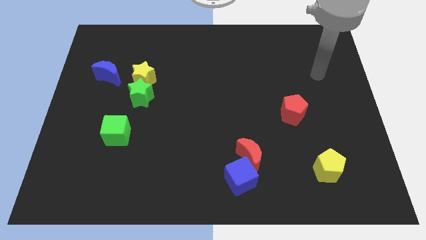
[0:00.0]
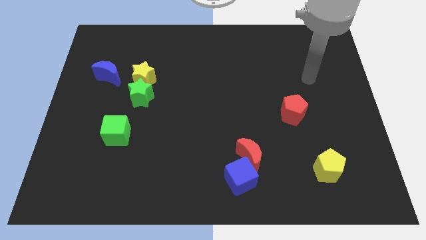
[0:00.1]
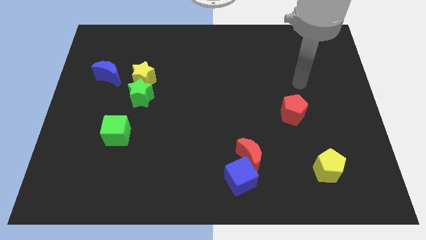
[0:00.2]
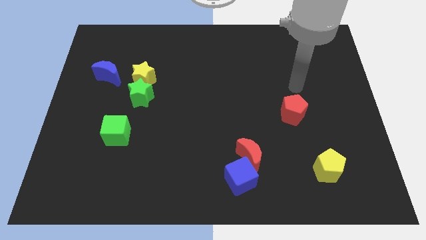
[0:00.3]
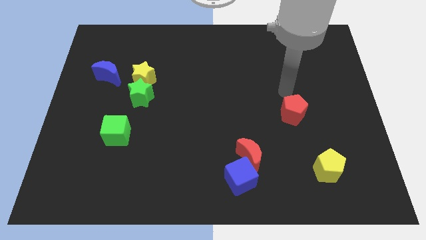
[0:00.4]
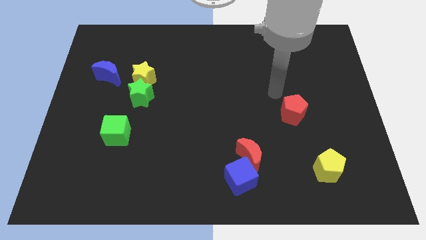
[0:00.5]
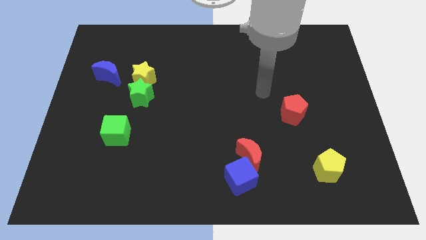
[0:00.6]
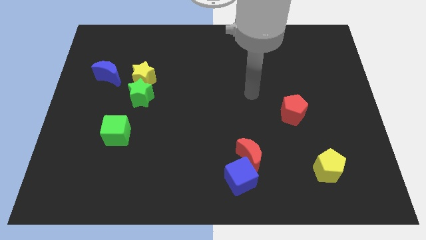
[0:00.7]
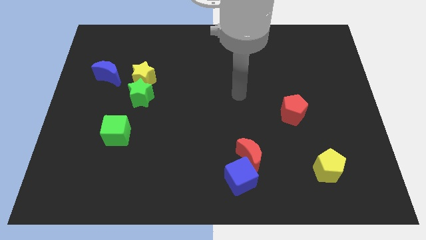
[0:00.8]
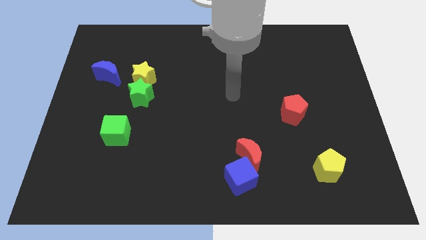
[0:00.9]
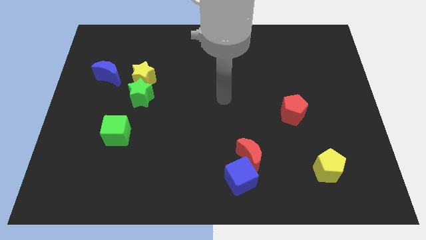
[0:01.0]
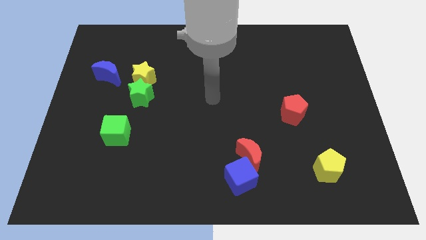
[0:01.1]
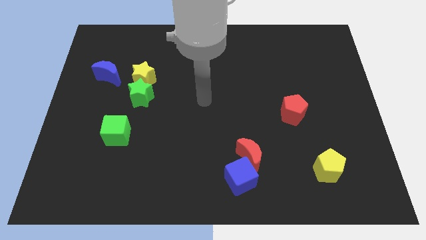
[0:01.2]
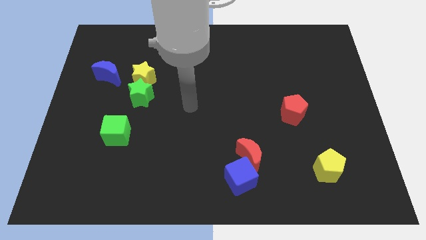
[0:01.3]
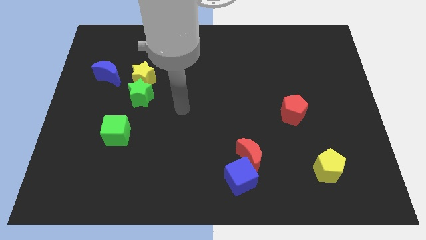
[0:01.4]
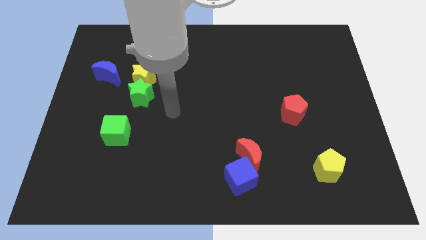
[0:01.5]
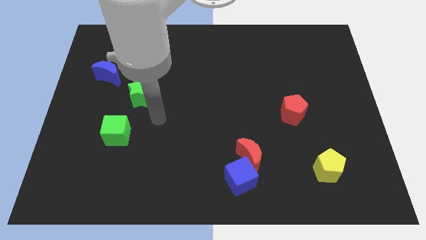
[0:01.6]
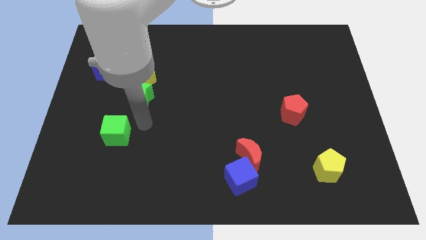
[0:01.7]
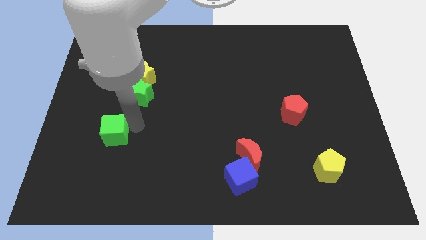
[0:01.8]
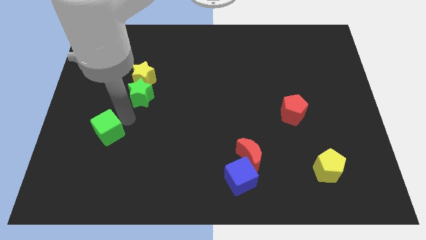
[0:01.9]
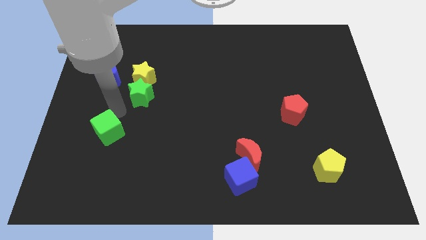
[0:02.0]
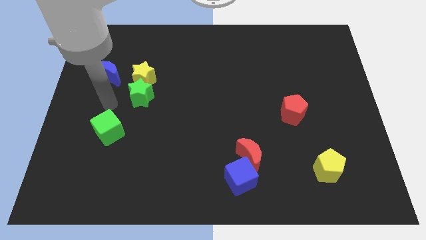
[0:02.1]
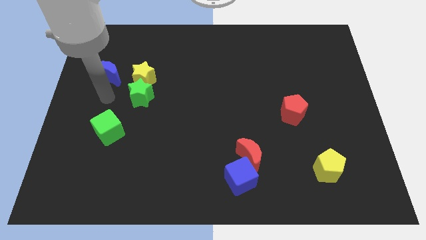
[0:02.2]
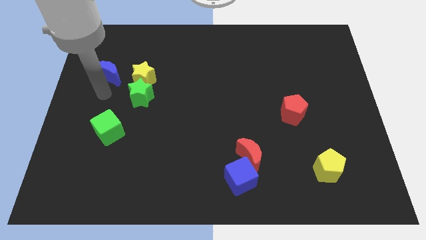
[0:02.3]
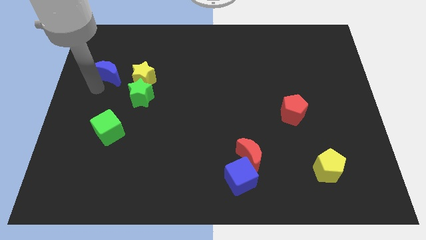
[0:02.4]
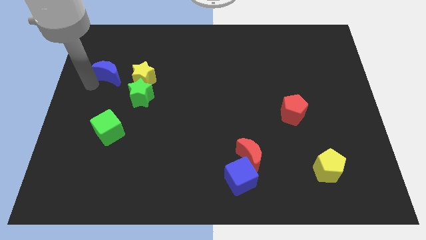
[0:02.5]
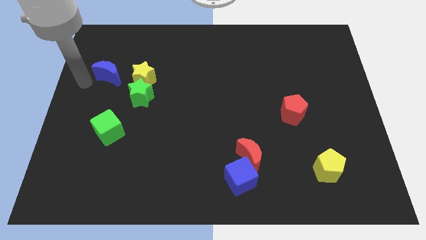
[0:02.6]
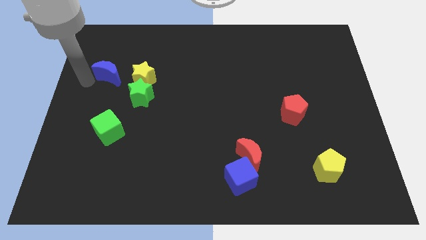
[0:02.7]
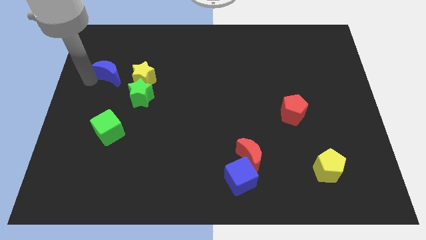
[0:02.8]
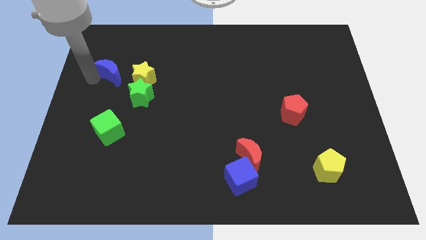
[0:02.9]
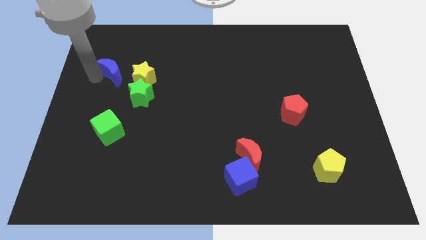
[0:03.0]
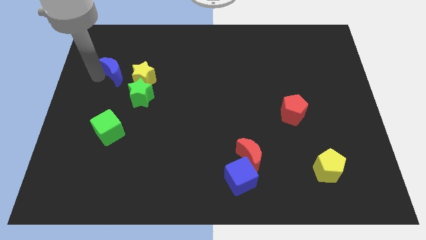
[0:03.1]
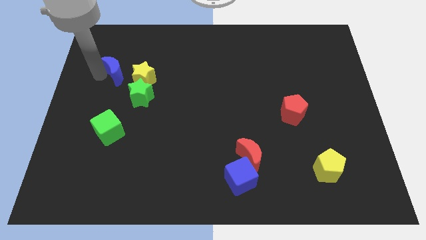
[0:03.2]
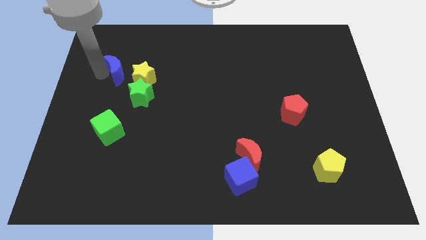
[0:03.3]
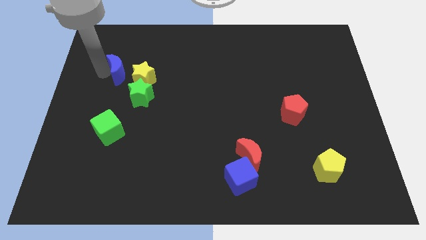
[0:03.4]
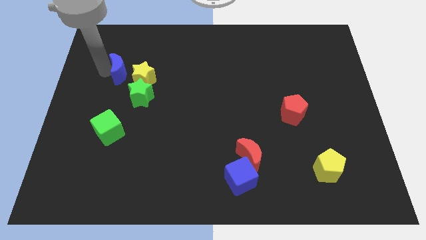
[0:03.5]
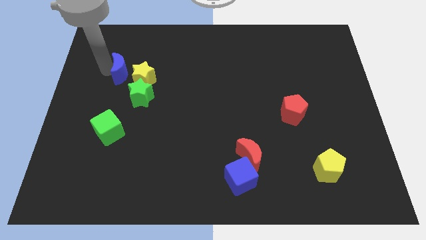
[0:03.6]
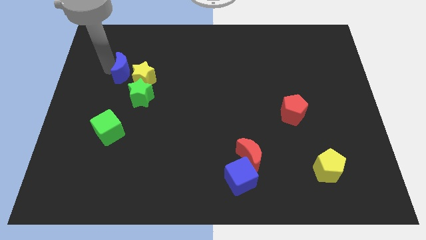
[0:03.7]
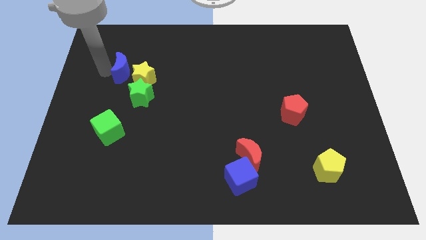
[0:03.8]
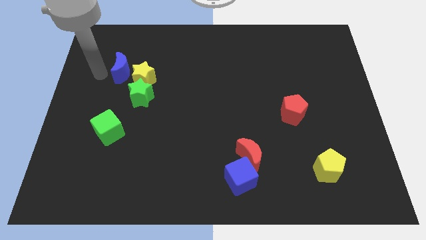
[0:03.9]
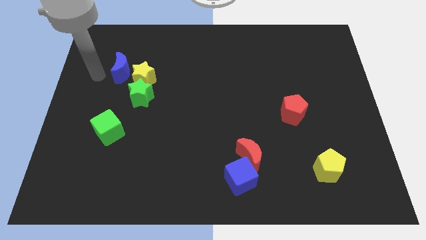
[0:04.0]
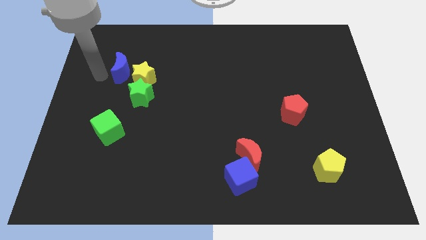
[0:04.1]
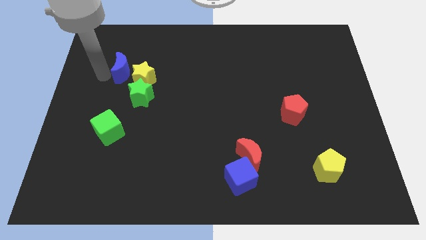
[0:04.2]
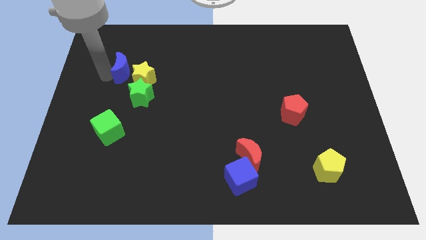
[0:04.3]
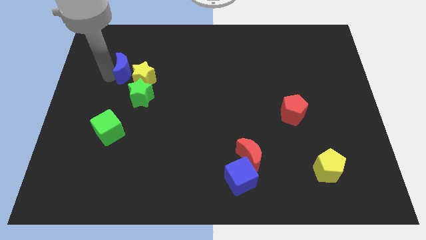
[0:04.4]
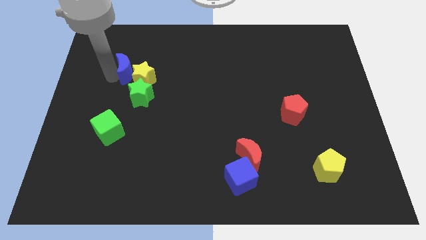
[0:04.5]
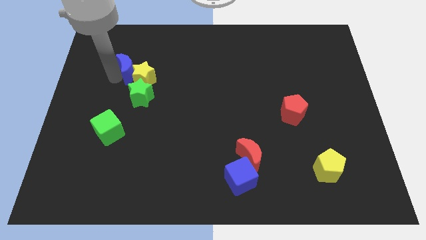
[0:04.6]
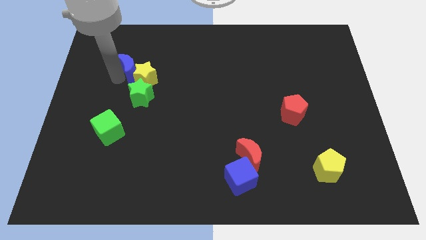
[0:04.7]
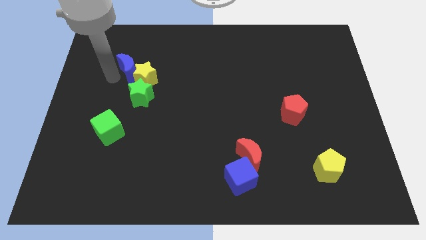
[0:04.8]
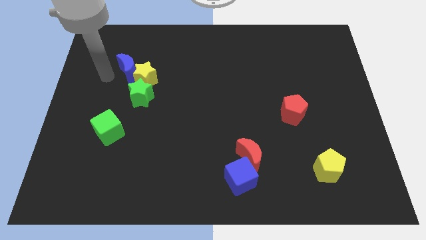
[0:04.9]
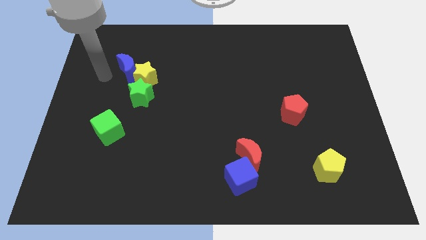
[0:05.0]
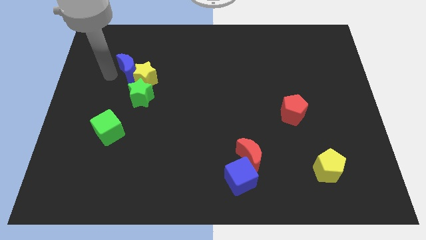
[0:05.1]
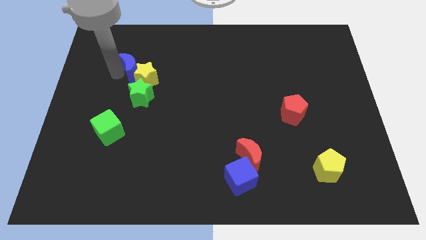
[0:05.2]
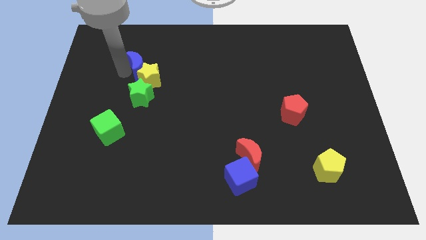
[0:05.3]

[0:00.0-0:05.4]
move the blue moon to the right somewhat

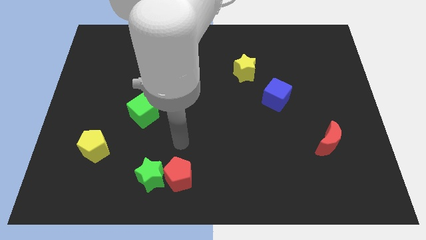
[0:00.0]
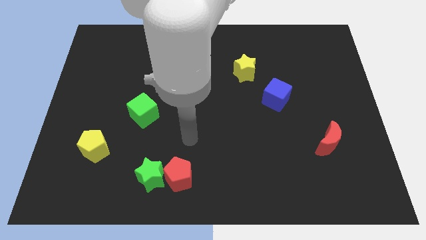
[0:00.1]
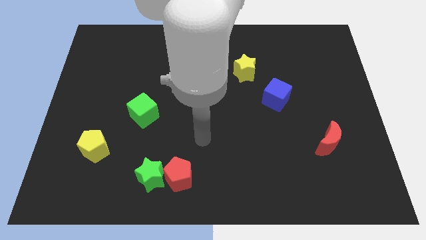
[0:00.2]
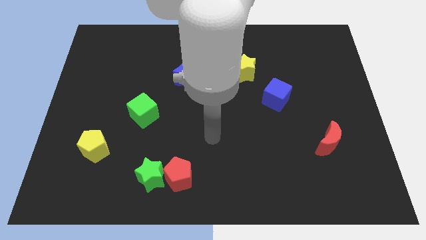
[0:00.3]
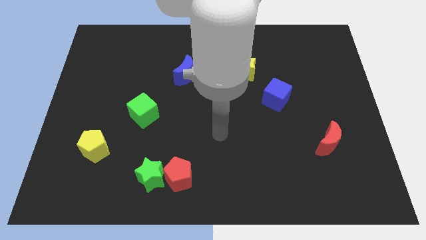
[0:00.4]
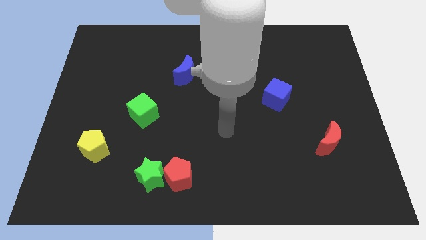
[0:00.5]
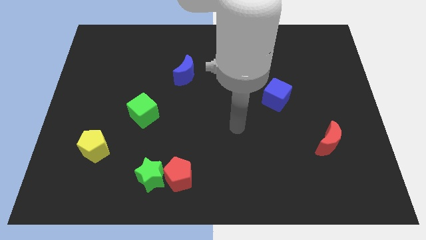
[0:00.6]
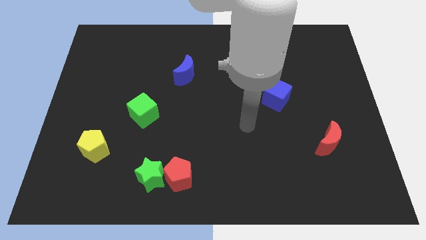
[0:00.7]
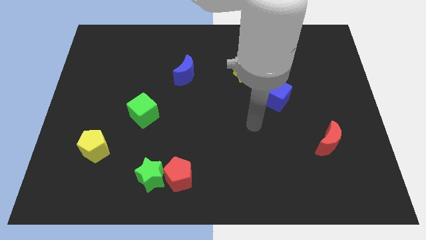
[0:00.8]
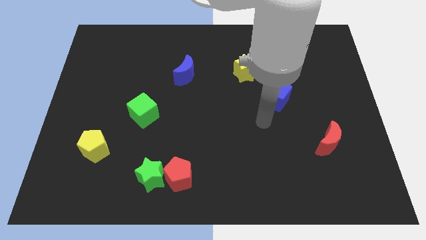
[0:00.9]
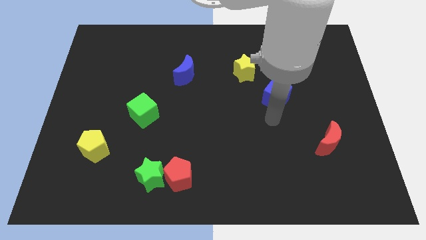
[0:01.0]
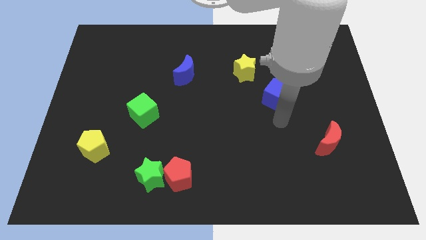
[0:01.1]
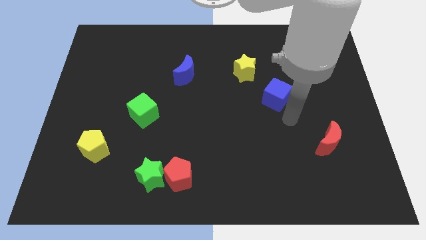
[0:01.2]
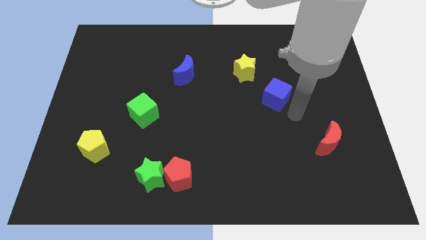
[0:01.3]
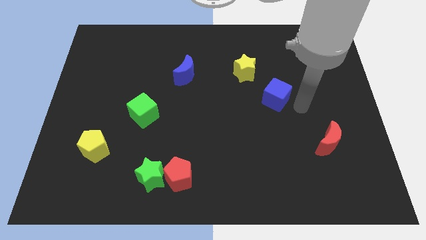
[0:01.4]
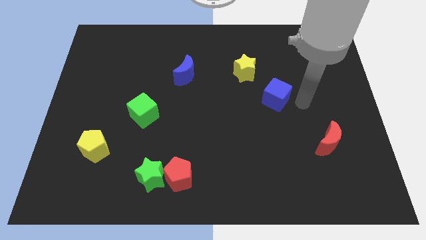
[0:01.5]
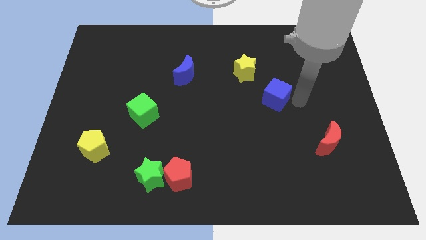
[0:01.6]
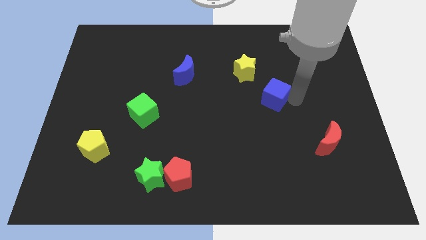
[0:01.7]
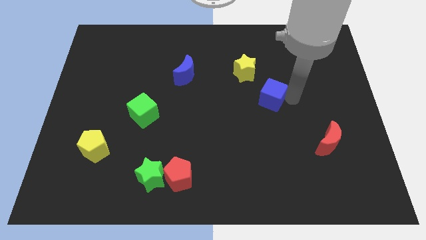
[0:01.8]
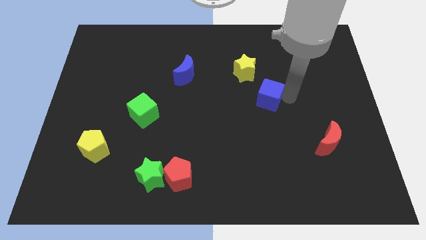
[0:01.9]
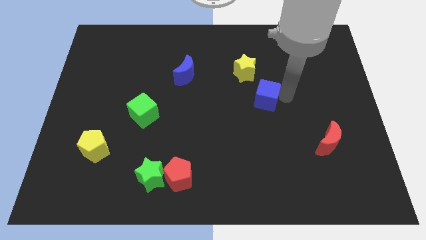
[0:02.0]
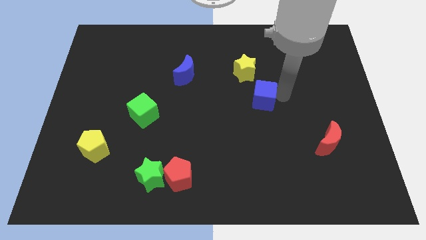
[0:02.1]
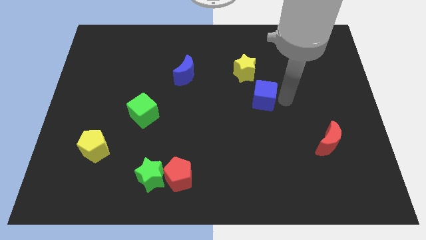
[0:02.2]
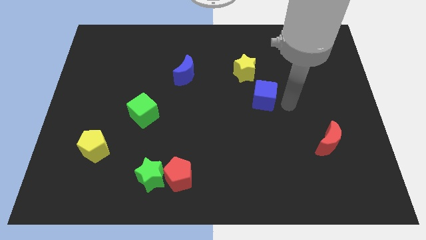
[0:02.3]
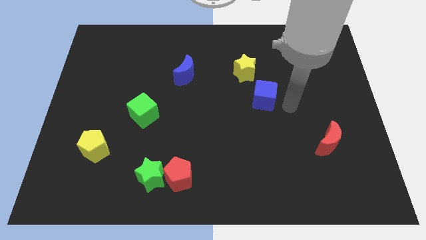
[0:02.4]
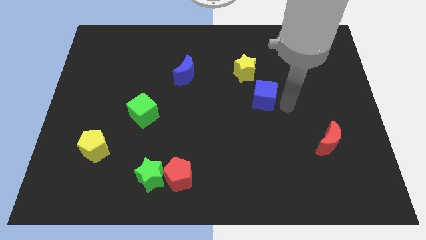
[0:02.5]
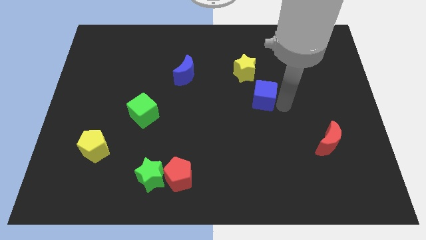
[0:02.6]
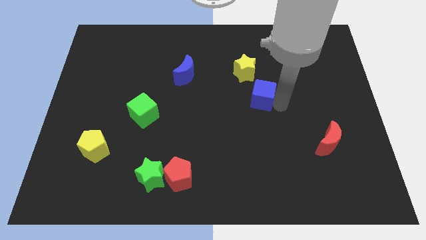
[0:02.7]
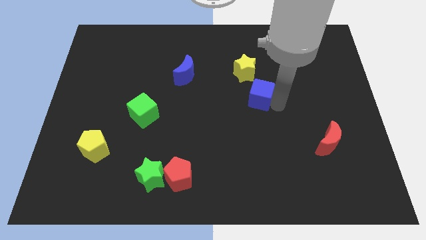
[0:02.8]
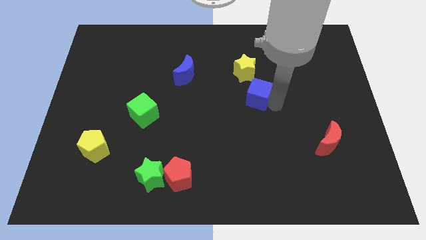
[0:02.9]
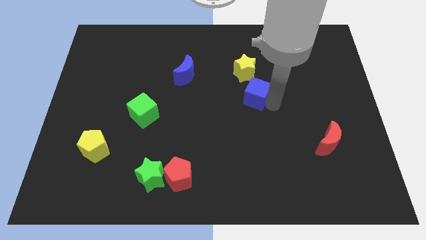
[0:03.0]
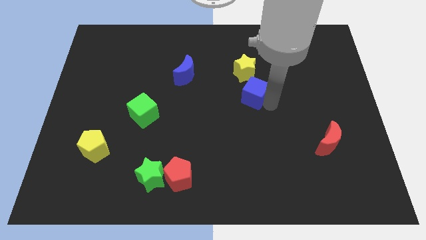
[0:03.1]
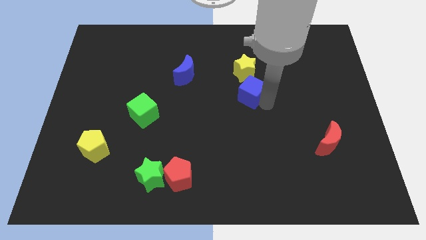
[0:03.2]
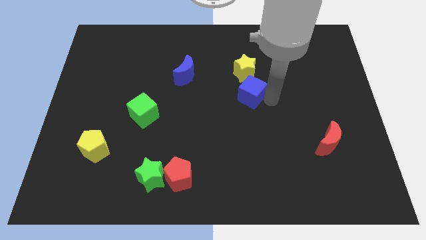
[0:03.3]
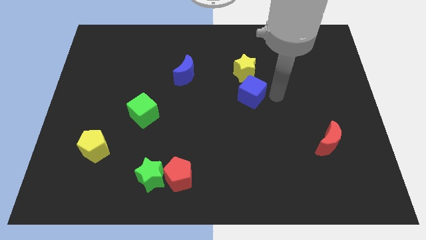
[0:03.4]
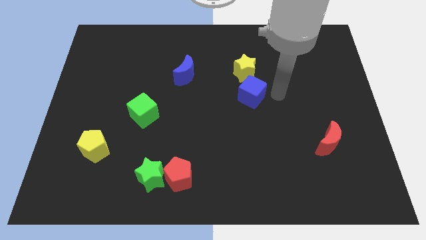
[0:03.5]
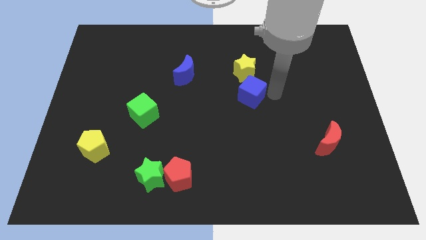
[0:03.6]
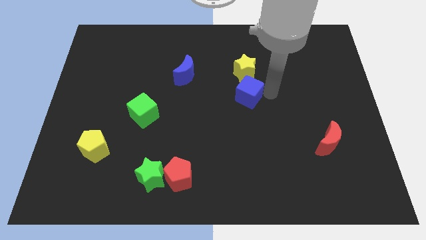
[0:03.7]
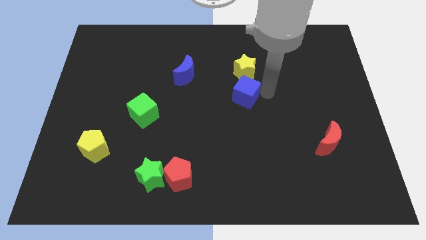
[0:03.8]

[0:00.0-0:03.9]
move the blue cube left somewhat
